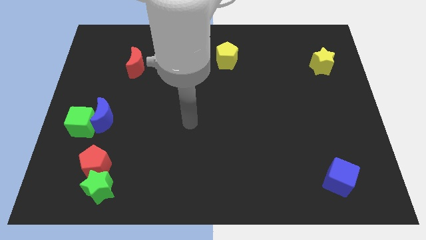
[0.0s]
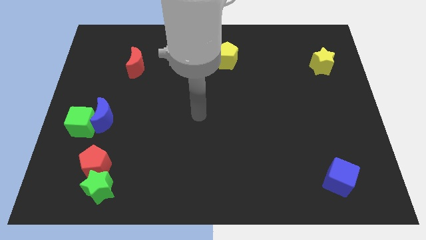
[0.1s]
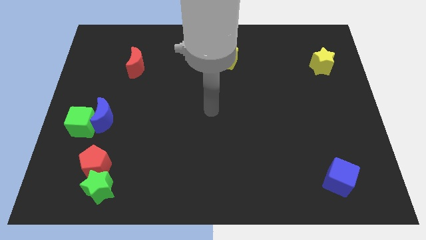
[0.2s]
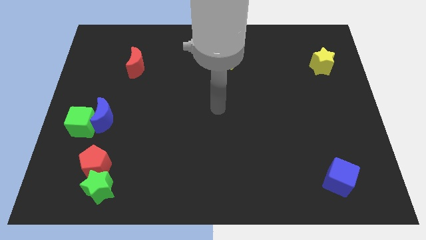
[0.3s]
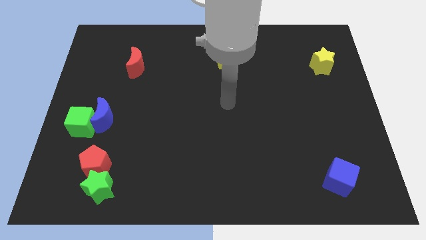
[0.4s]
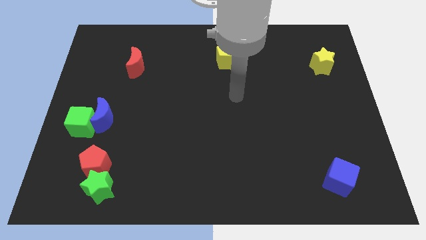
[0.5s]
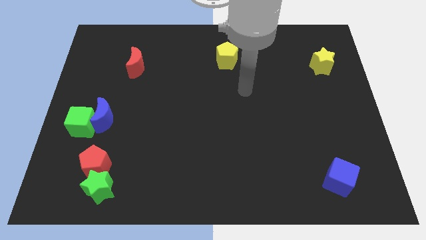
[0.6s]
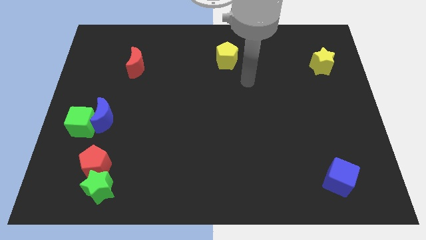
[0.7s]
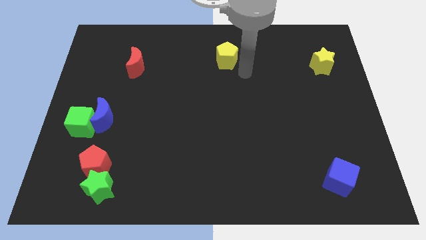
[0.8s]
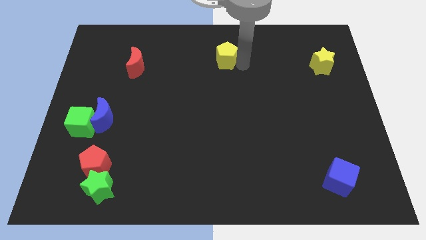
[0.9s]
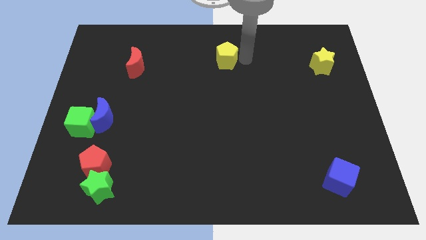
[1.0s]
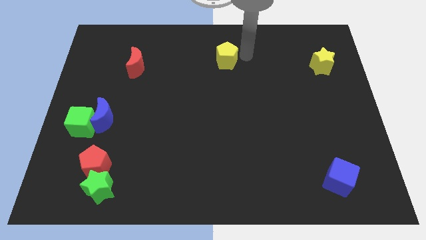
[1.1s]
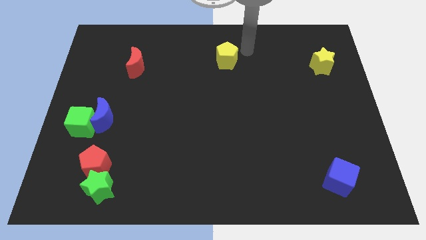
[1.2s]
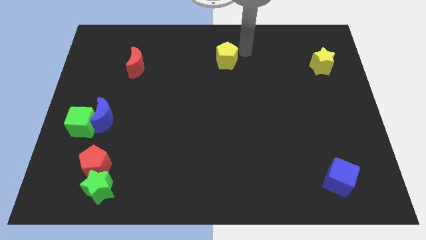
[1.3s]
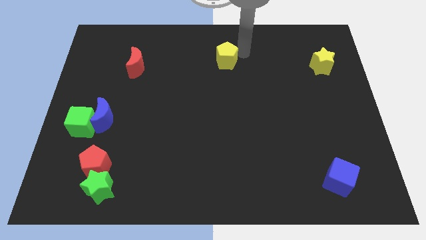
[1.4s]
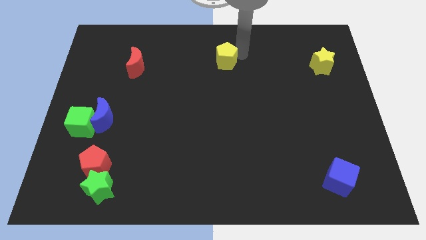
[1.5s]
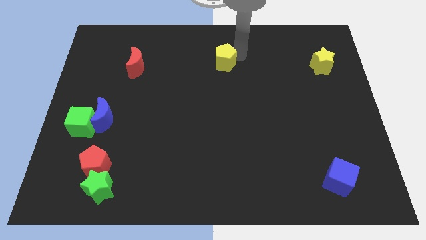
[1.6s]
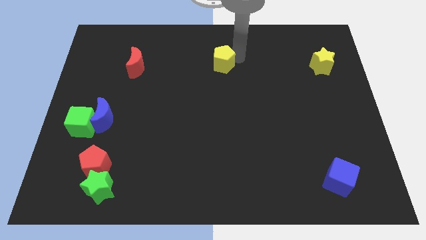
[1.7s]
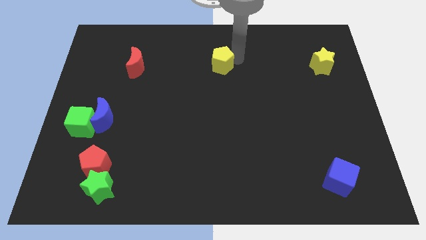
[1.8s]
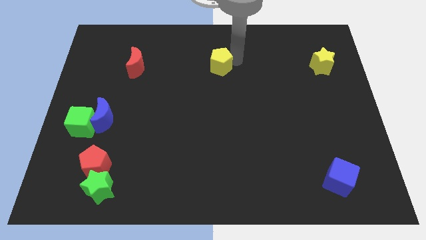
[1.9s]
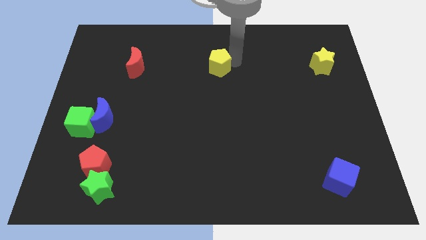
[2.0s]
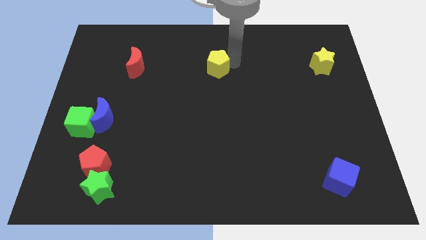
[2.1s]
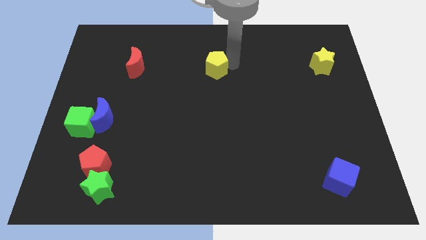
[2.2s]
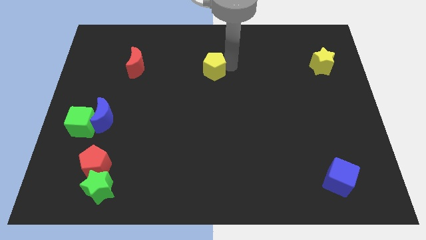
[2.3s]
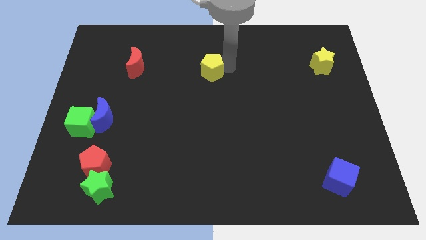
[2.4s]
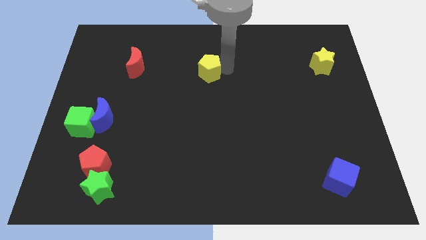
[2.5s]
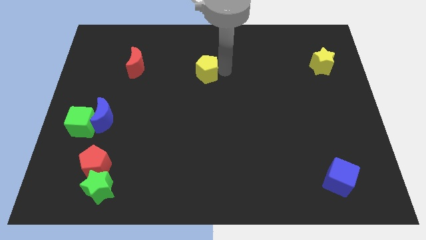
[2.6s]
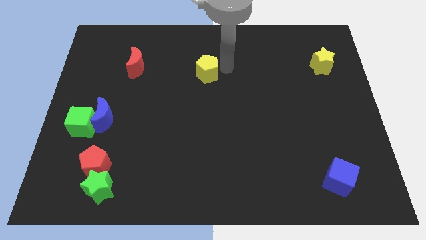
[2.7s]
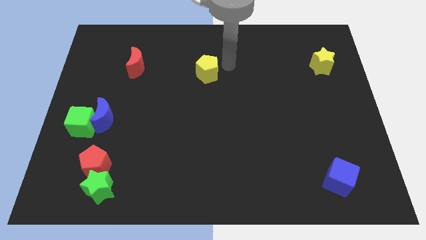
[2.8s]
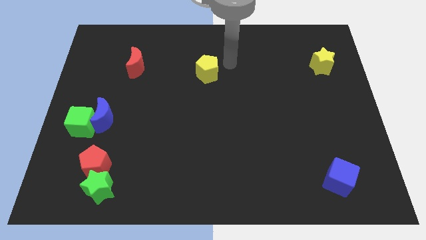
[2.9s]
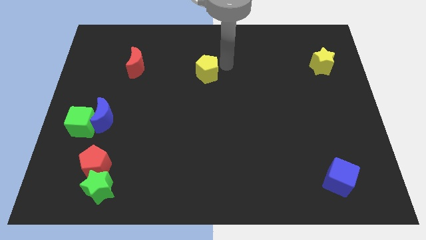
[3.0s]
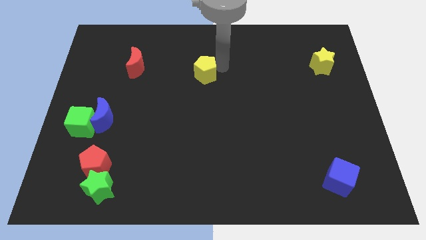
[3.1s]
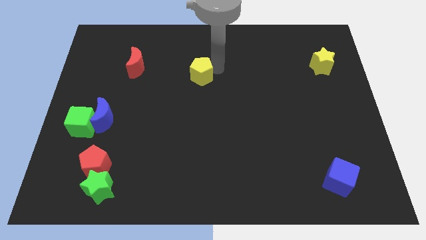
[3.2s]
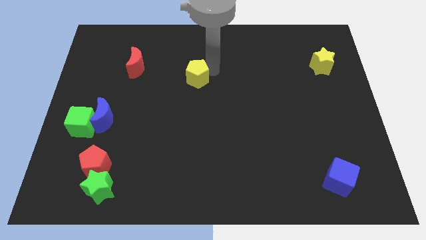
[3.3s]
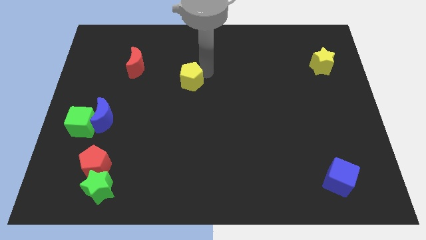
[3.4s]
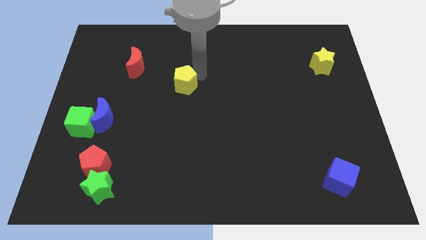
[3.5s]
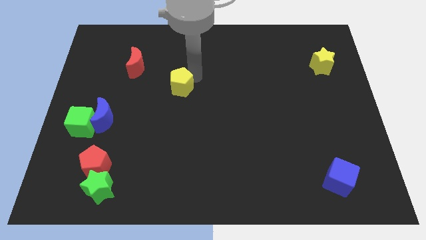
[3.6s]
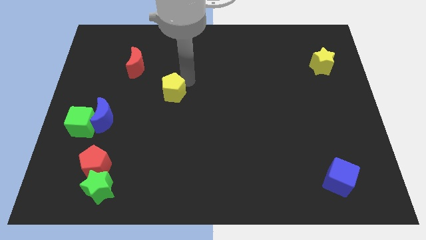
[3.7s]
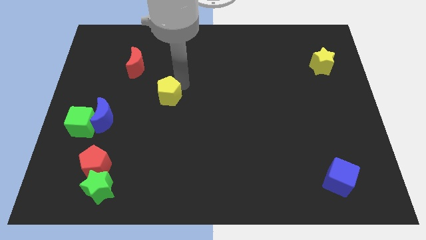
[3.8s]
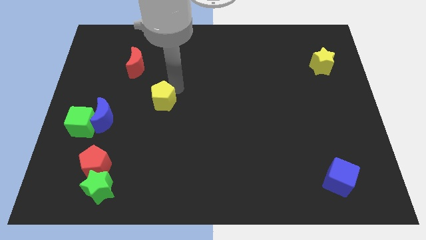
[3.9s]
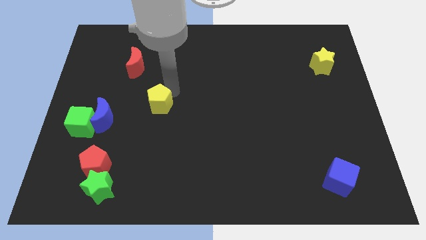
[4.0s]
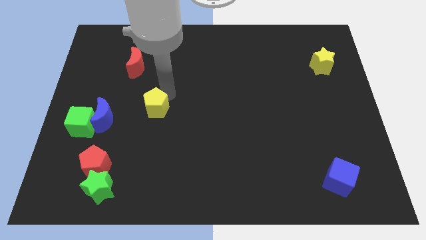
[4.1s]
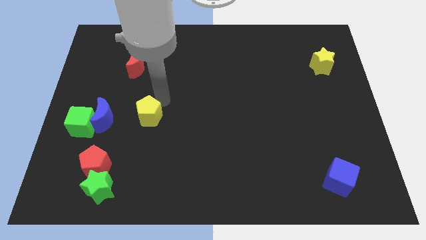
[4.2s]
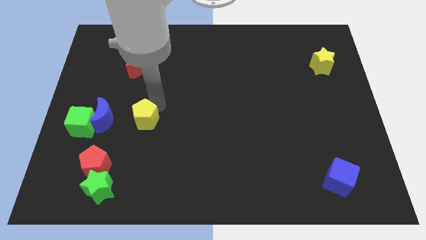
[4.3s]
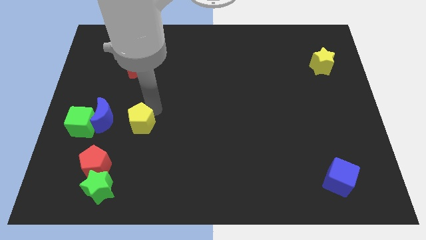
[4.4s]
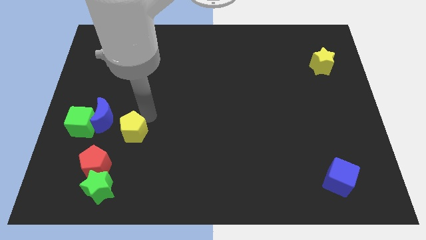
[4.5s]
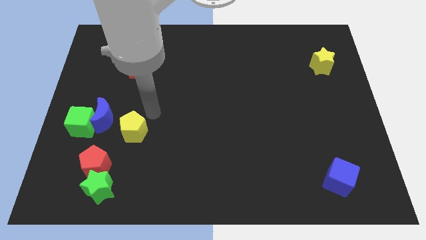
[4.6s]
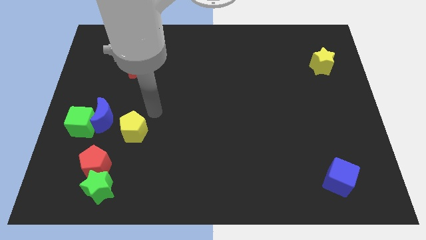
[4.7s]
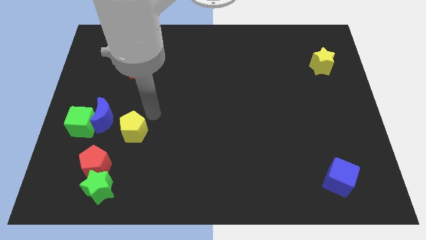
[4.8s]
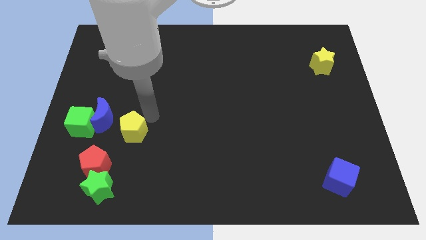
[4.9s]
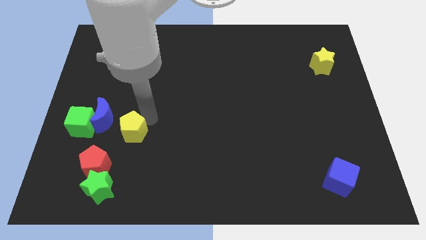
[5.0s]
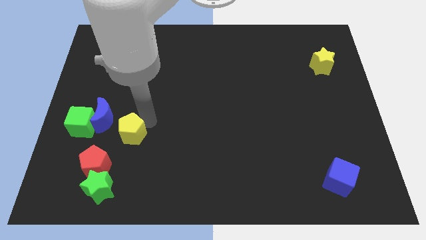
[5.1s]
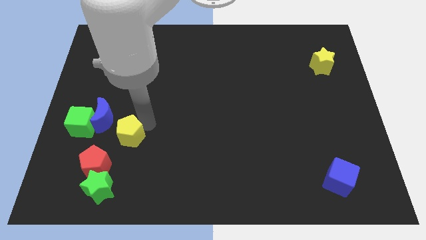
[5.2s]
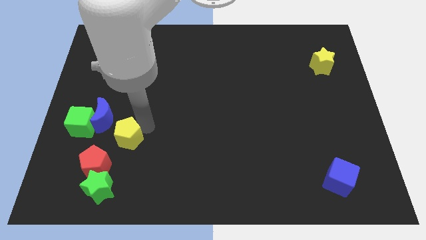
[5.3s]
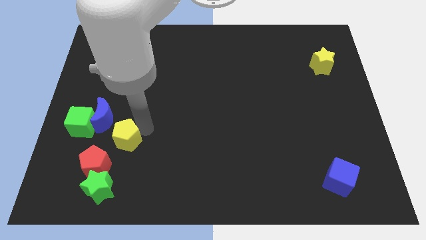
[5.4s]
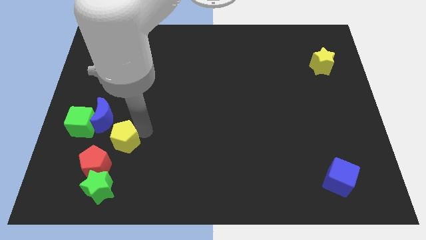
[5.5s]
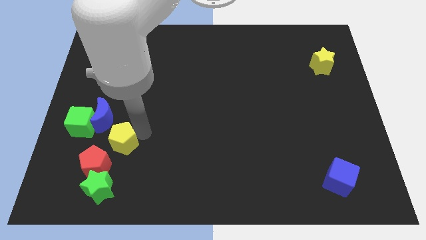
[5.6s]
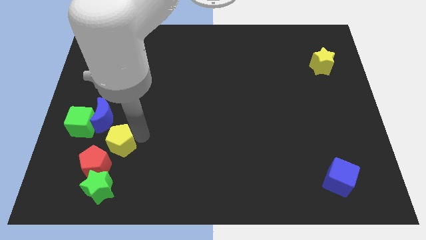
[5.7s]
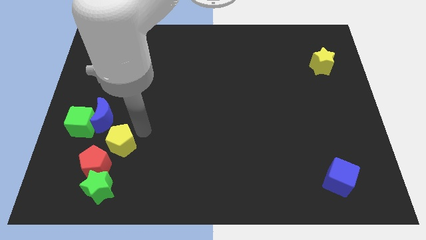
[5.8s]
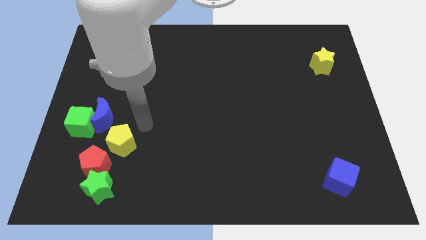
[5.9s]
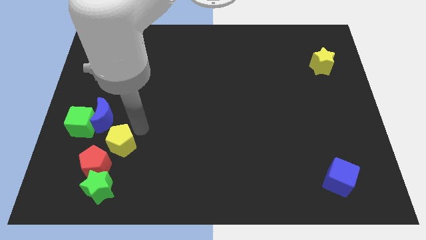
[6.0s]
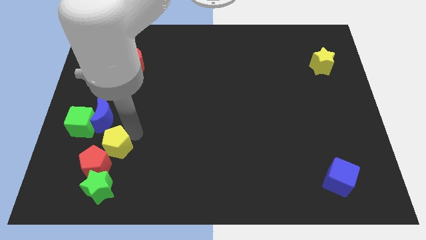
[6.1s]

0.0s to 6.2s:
slide the yellow pentagon close to the red pentagon

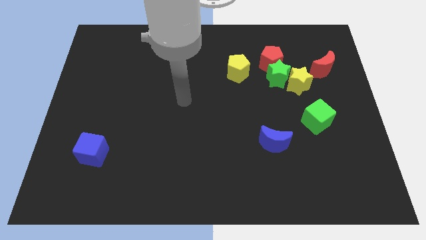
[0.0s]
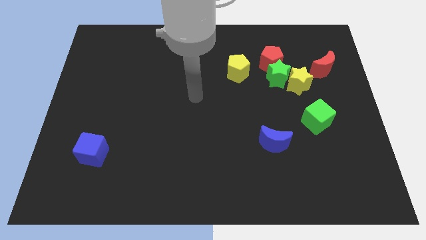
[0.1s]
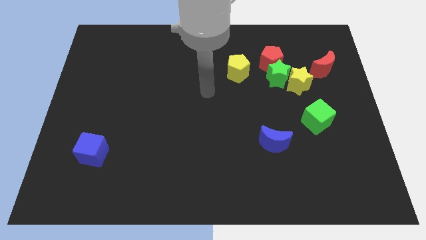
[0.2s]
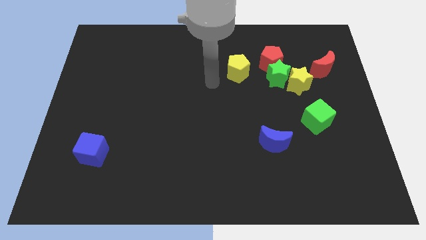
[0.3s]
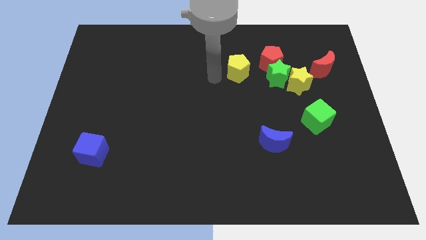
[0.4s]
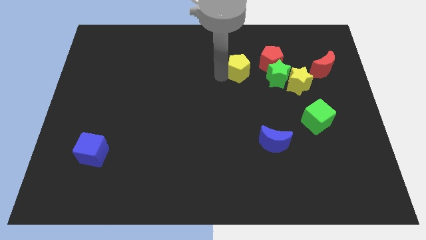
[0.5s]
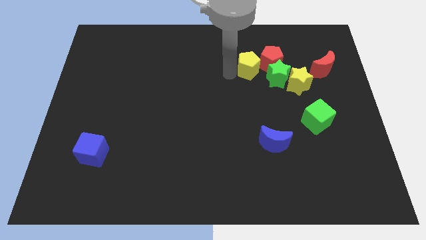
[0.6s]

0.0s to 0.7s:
slide the yellow pentagon next to the red pentagon
